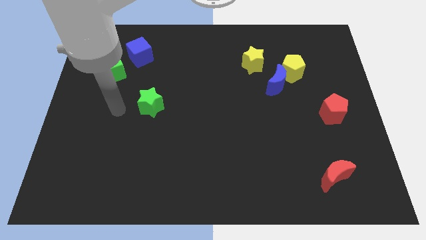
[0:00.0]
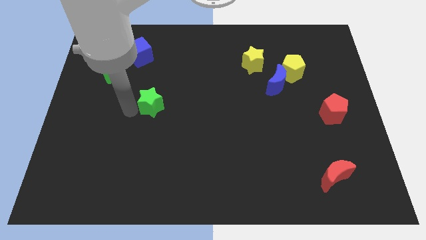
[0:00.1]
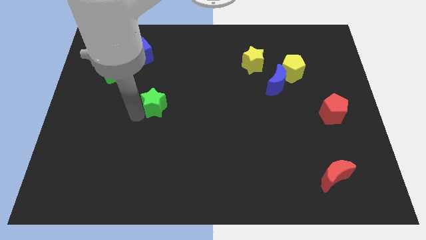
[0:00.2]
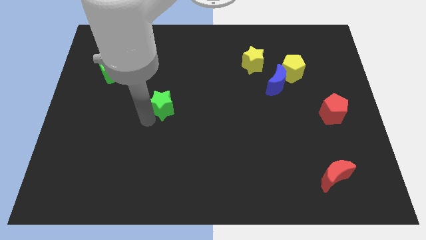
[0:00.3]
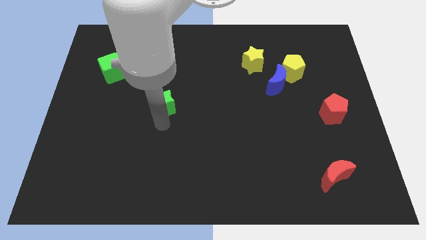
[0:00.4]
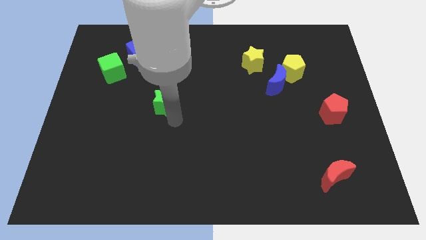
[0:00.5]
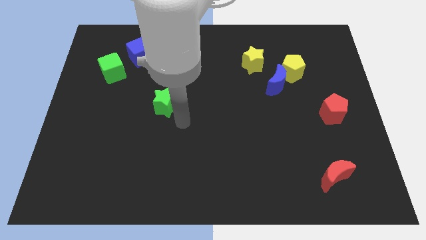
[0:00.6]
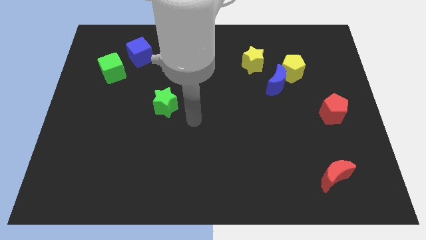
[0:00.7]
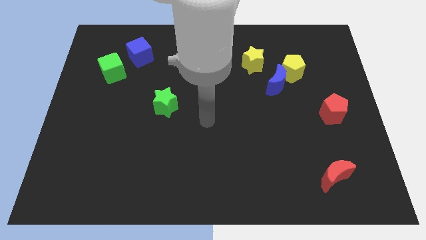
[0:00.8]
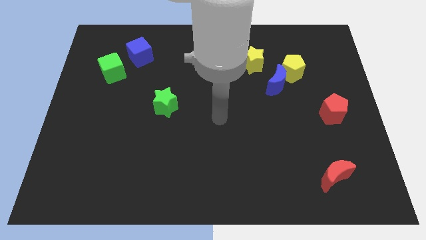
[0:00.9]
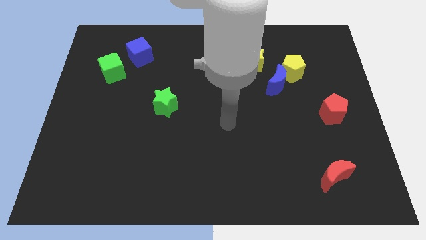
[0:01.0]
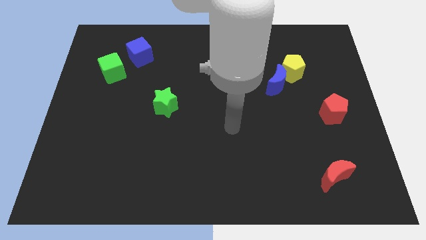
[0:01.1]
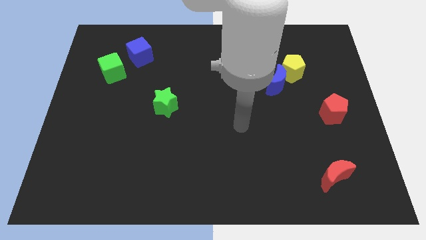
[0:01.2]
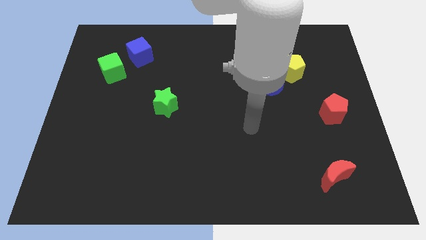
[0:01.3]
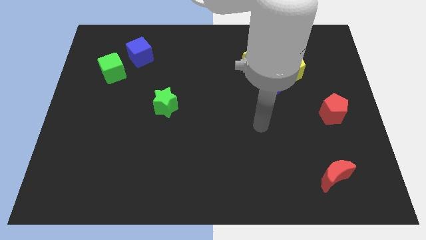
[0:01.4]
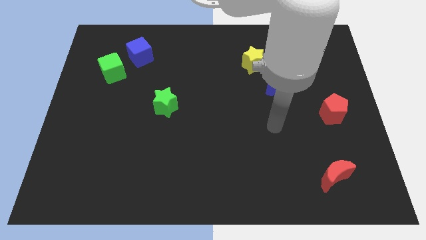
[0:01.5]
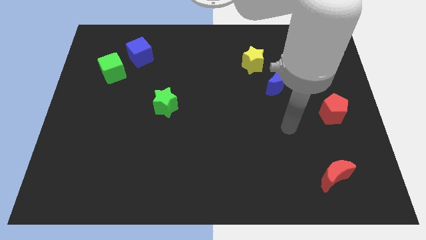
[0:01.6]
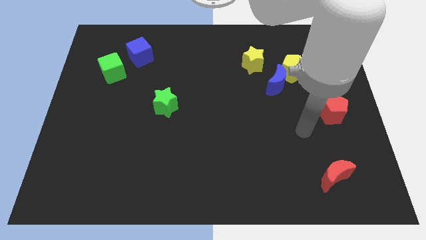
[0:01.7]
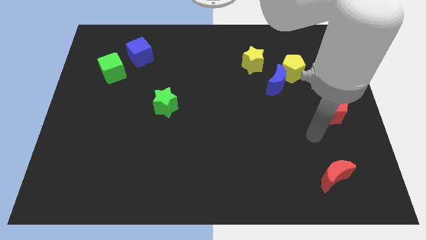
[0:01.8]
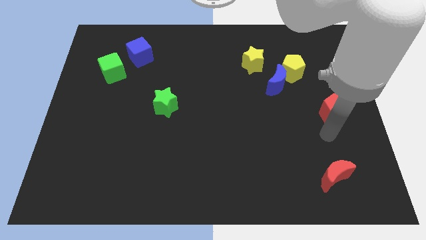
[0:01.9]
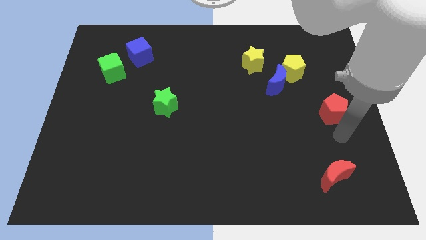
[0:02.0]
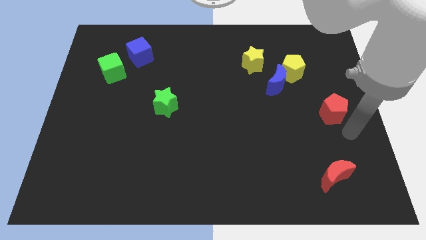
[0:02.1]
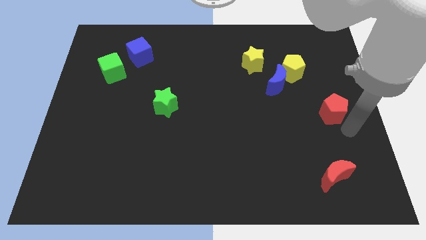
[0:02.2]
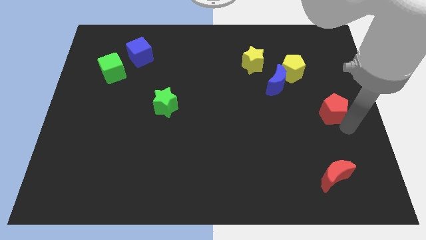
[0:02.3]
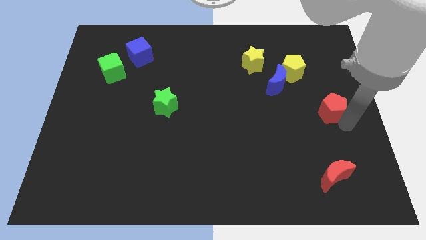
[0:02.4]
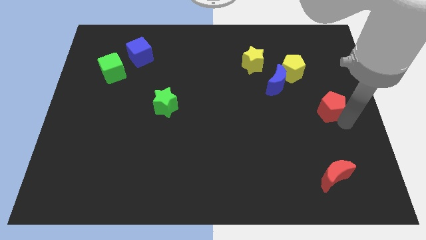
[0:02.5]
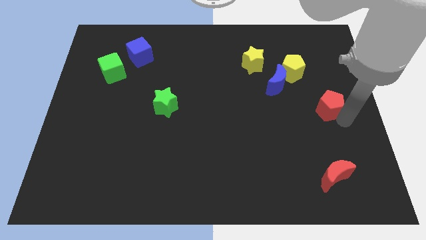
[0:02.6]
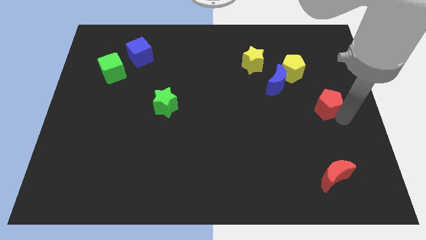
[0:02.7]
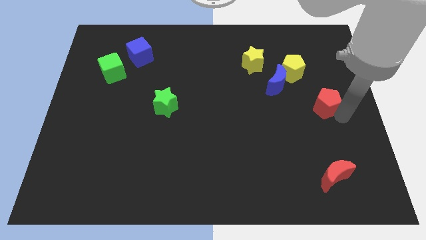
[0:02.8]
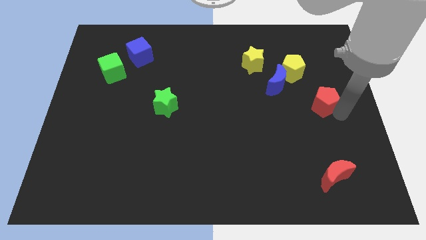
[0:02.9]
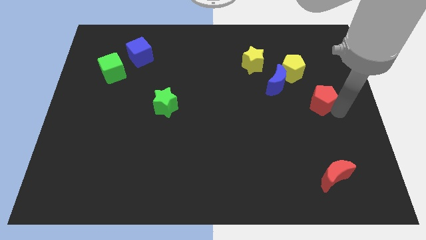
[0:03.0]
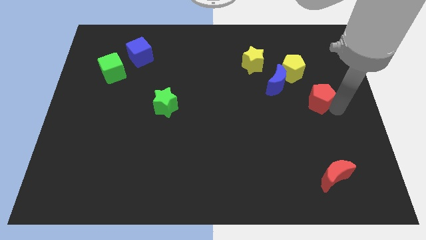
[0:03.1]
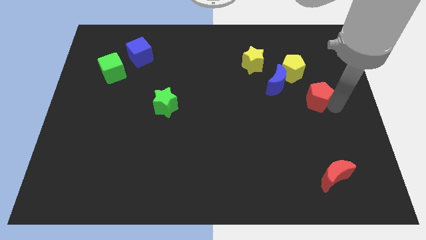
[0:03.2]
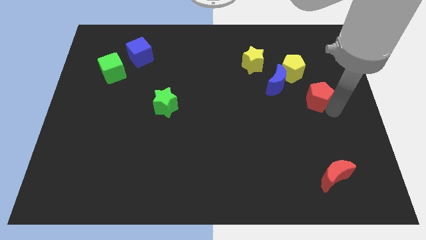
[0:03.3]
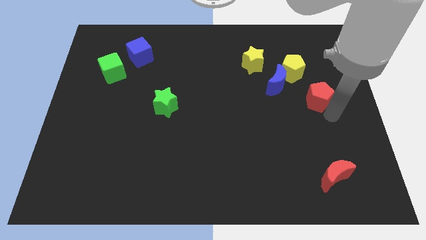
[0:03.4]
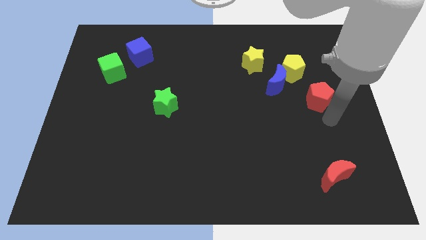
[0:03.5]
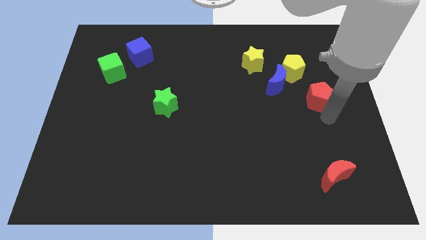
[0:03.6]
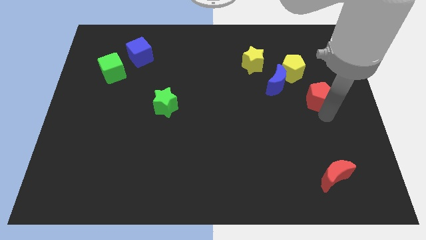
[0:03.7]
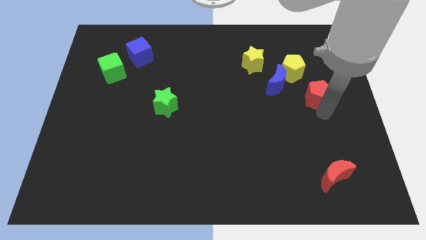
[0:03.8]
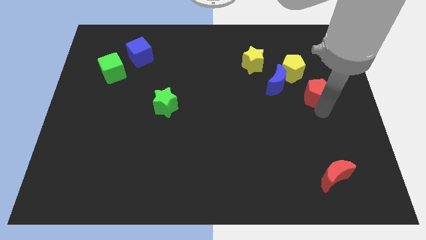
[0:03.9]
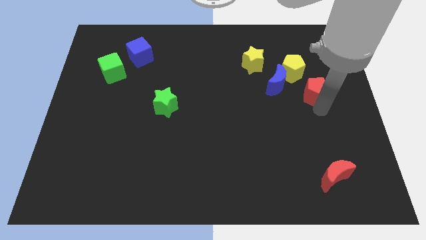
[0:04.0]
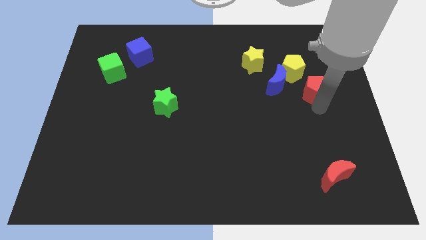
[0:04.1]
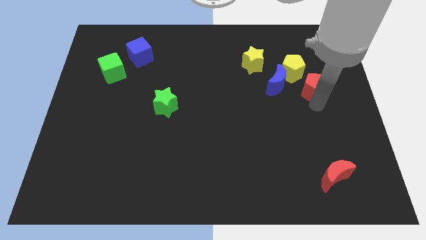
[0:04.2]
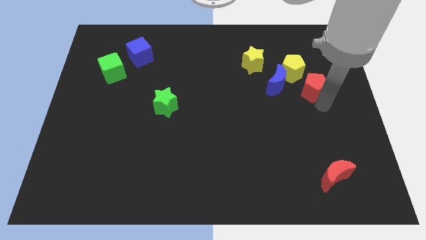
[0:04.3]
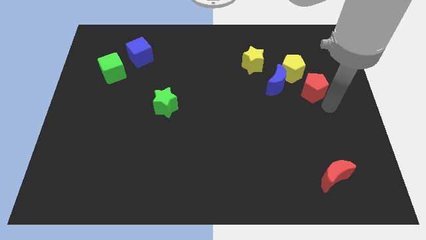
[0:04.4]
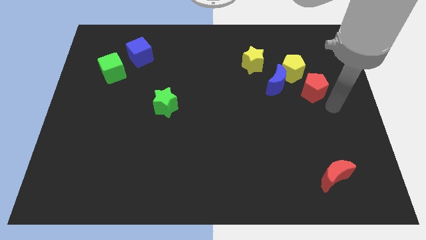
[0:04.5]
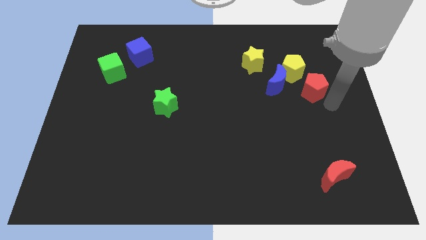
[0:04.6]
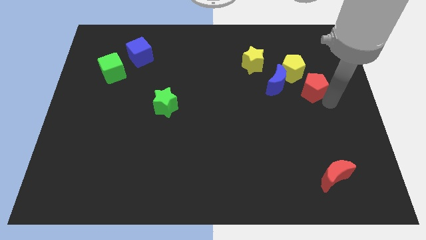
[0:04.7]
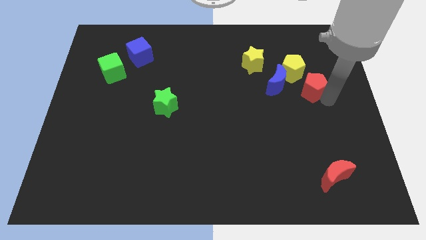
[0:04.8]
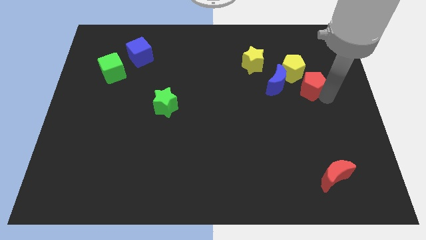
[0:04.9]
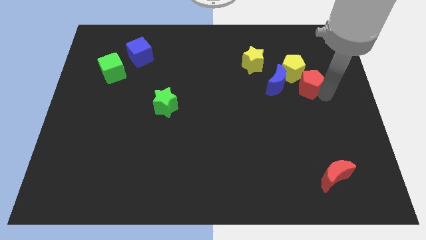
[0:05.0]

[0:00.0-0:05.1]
push the red pentagon close to the yellow pentagon

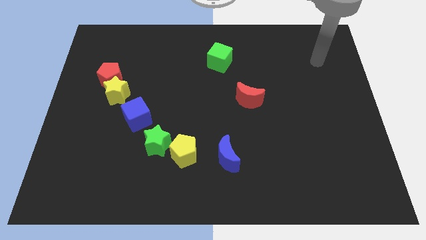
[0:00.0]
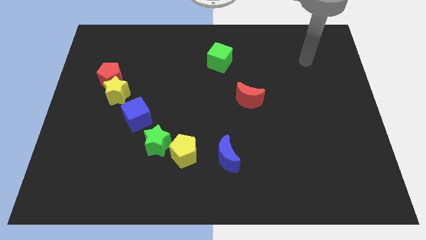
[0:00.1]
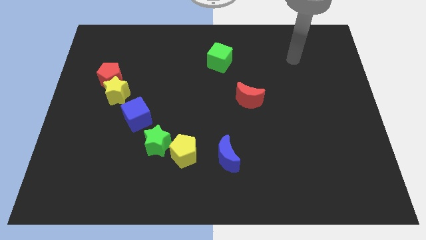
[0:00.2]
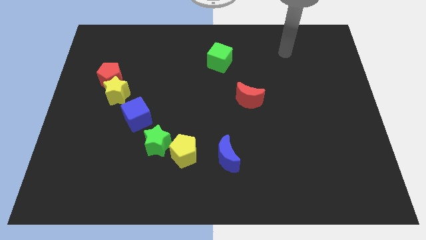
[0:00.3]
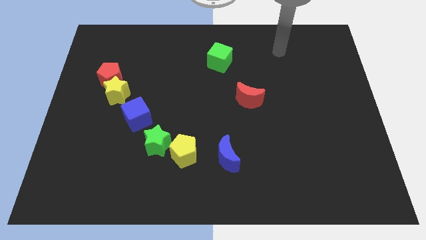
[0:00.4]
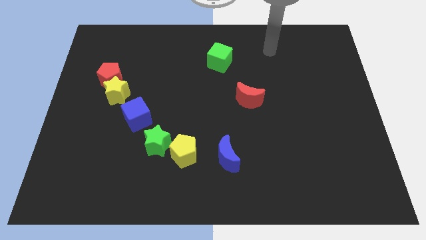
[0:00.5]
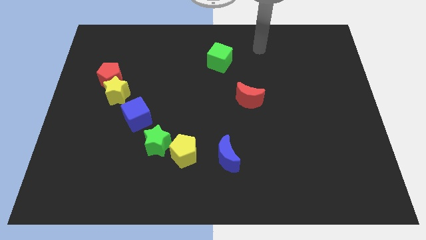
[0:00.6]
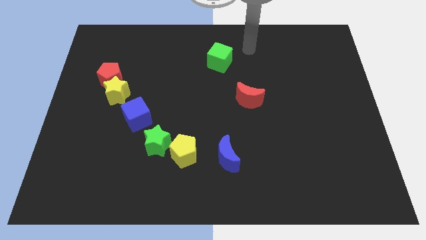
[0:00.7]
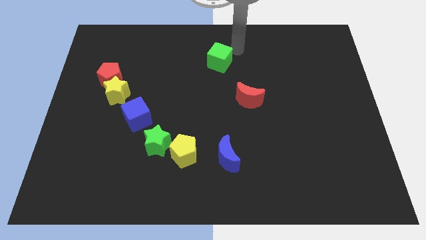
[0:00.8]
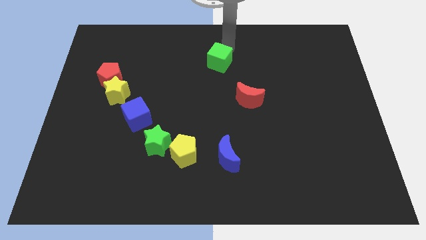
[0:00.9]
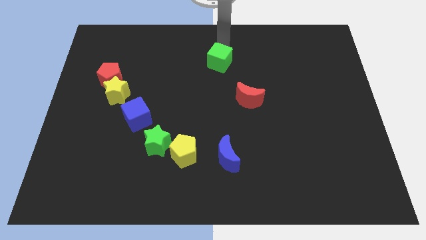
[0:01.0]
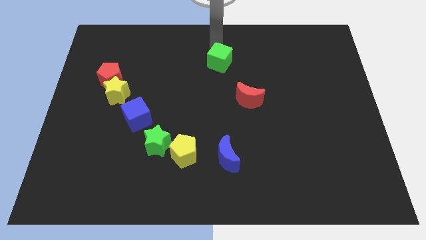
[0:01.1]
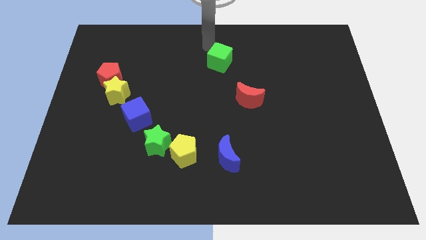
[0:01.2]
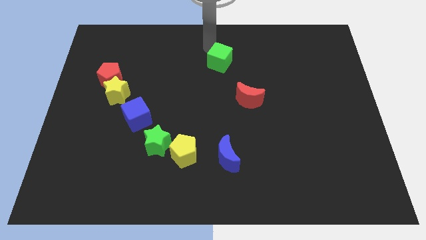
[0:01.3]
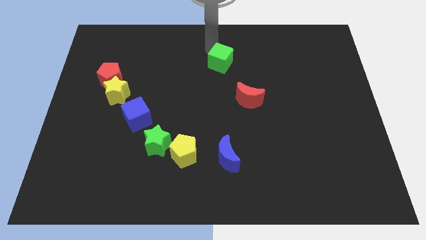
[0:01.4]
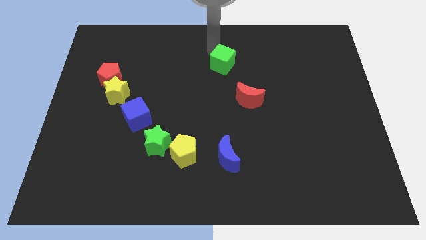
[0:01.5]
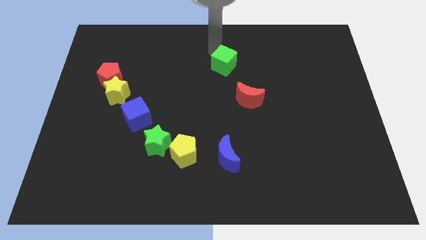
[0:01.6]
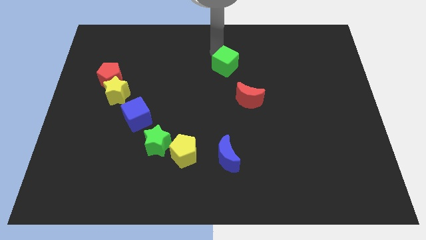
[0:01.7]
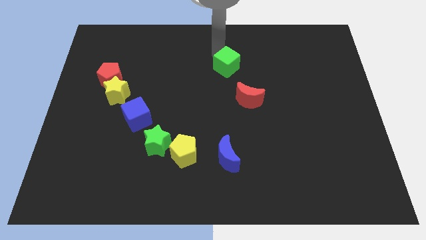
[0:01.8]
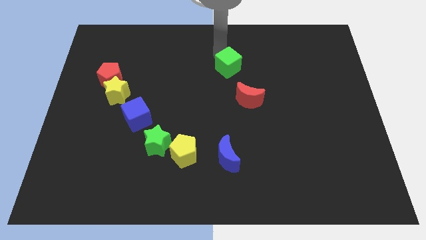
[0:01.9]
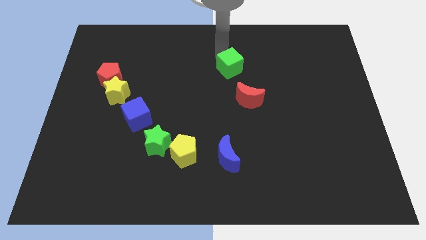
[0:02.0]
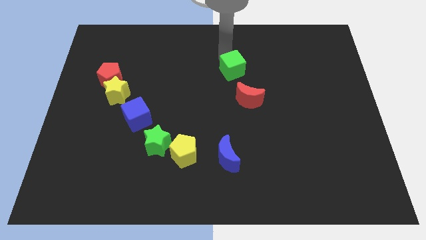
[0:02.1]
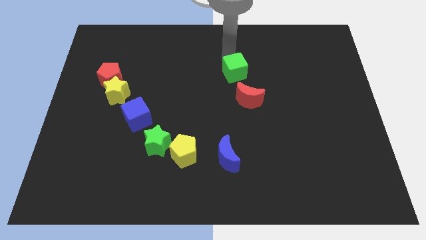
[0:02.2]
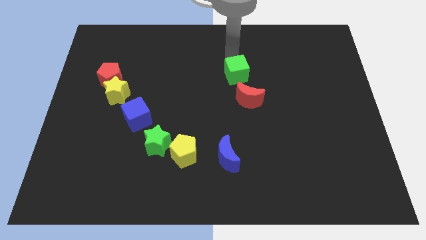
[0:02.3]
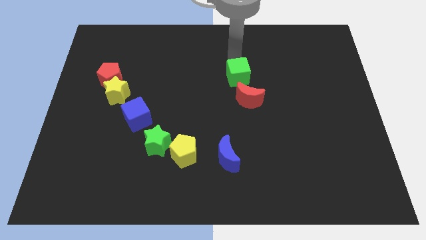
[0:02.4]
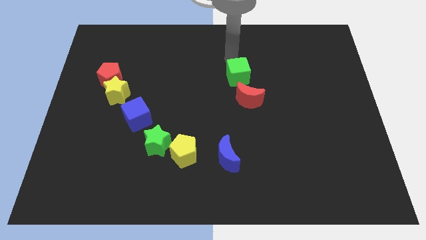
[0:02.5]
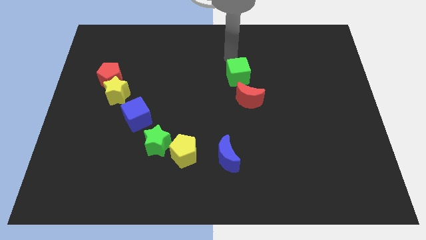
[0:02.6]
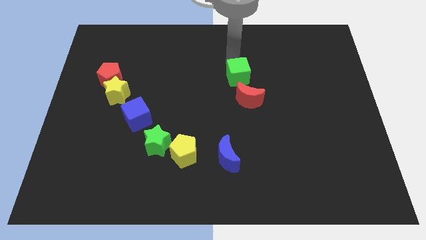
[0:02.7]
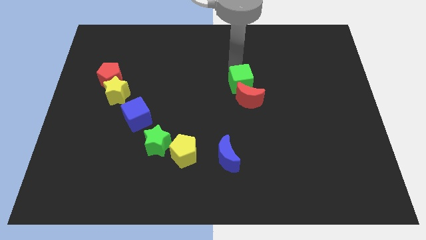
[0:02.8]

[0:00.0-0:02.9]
slide the green cube close to the red moon
